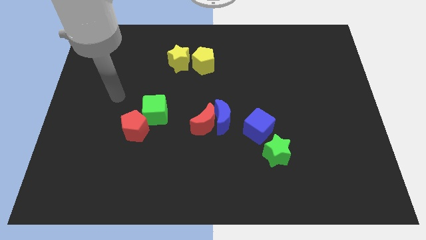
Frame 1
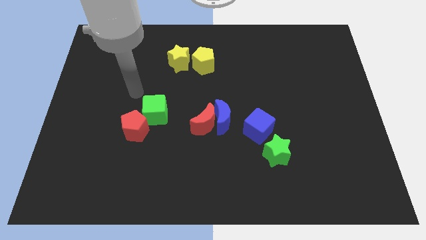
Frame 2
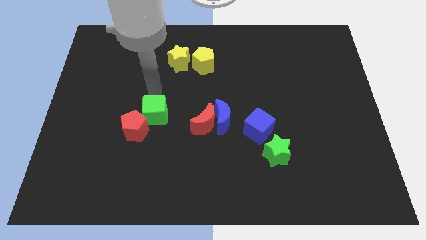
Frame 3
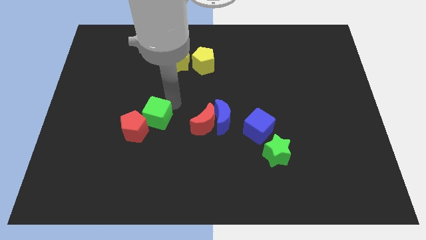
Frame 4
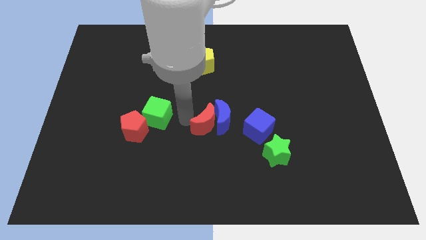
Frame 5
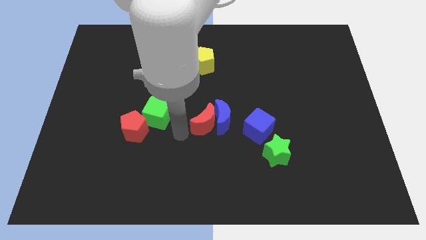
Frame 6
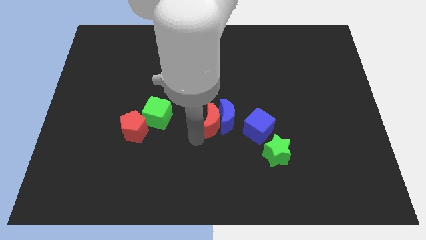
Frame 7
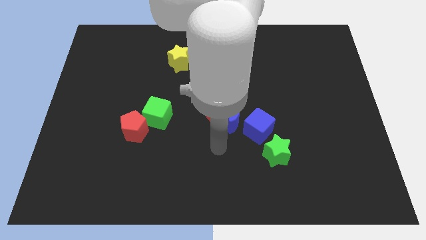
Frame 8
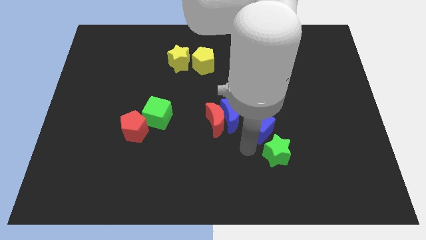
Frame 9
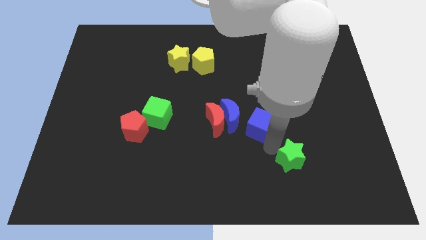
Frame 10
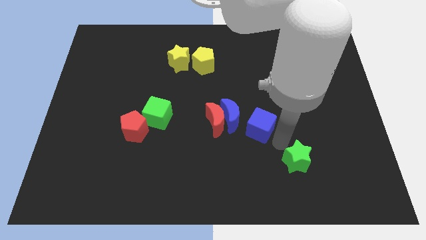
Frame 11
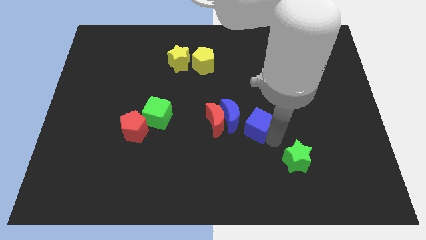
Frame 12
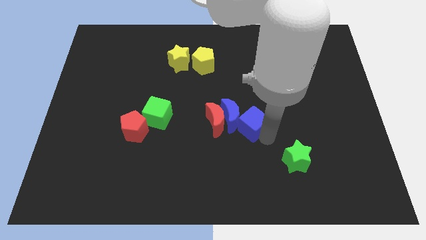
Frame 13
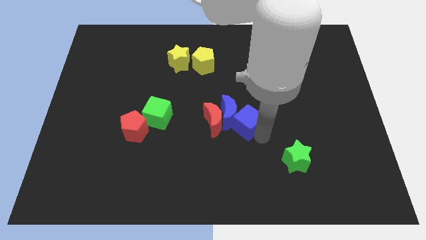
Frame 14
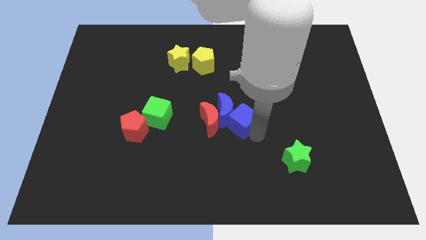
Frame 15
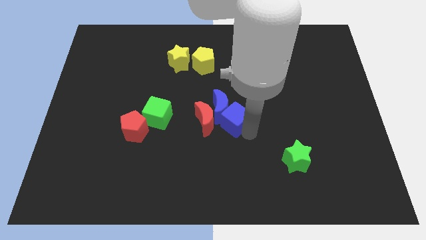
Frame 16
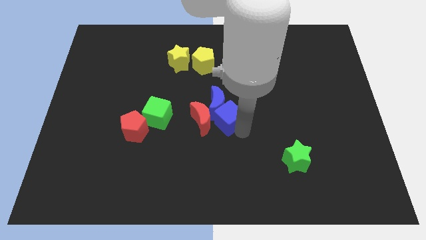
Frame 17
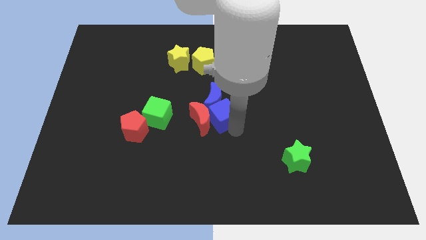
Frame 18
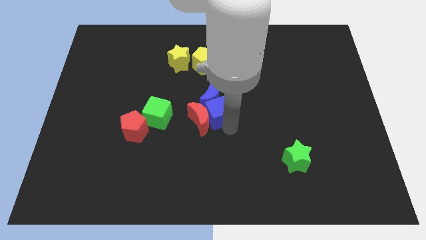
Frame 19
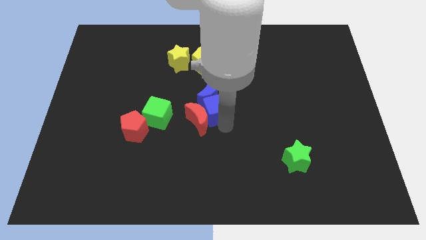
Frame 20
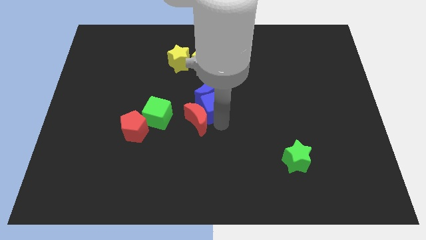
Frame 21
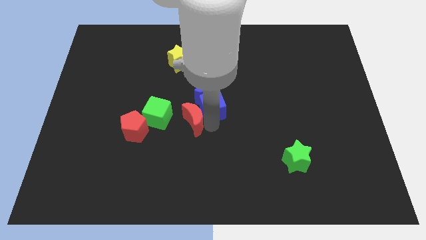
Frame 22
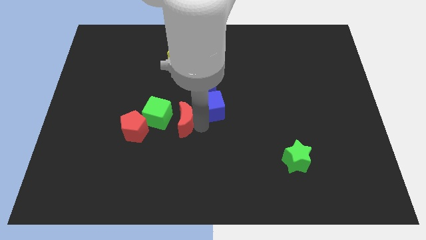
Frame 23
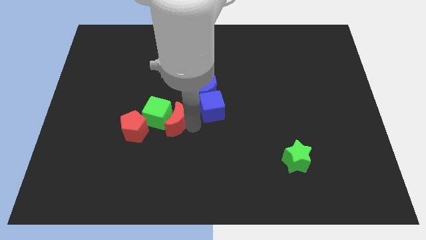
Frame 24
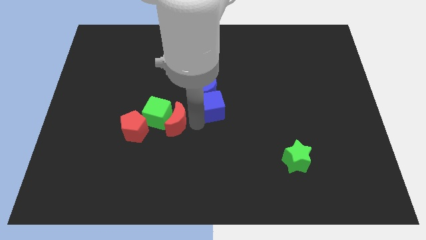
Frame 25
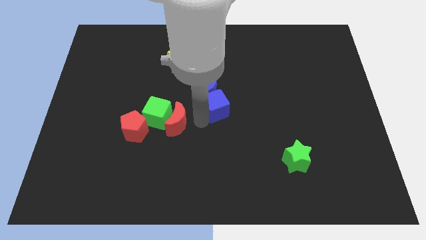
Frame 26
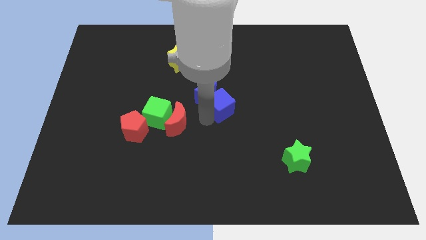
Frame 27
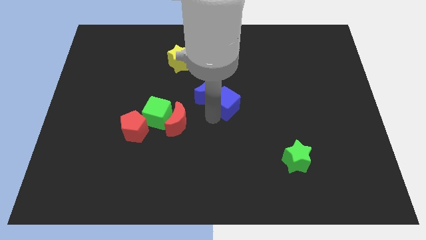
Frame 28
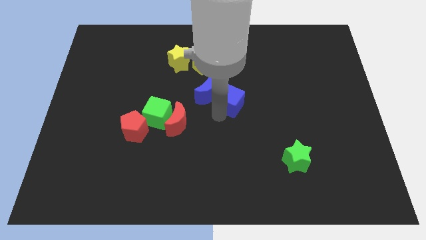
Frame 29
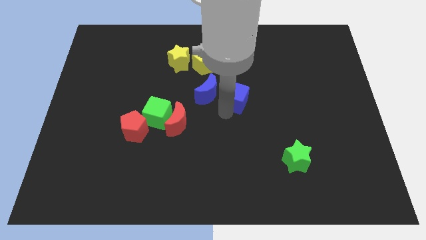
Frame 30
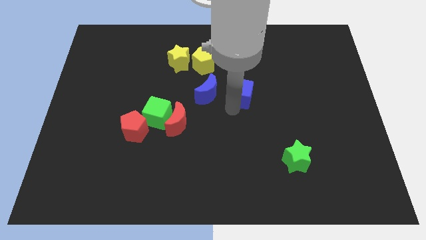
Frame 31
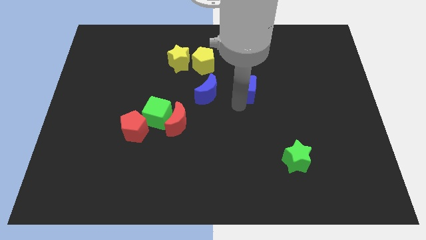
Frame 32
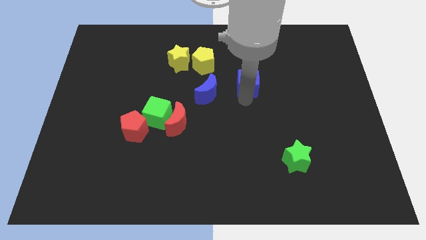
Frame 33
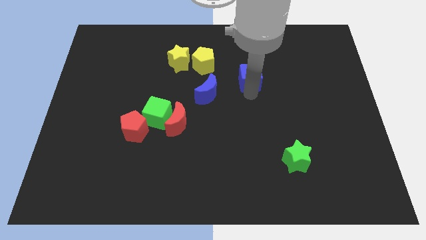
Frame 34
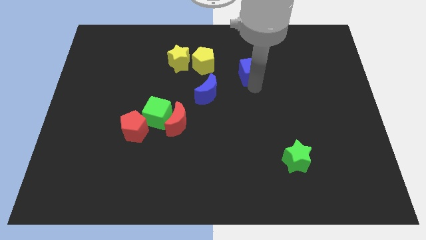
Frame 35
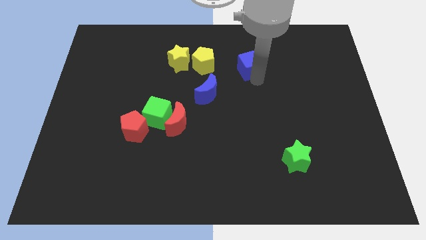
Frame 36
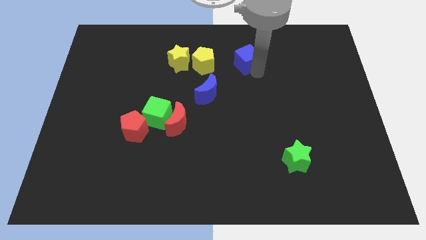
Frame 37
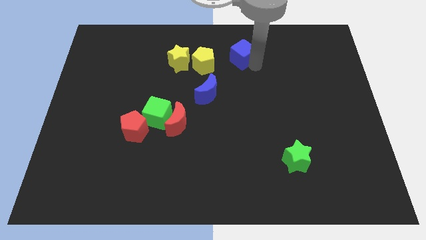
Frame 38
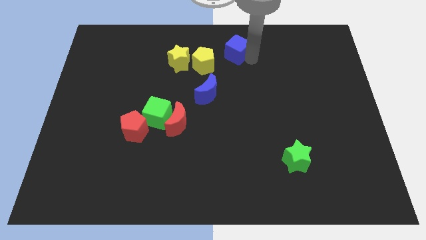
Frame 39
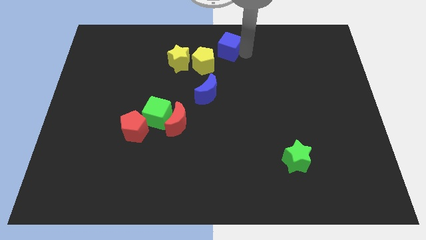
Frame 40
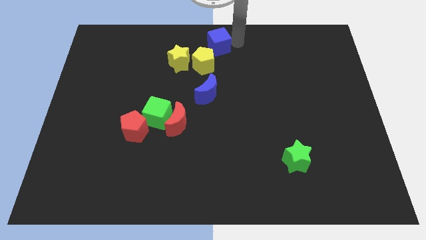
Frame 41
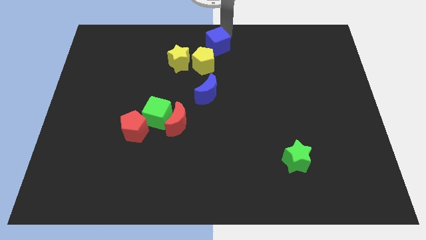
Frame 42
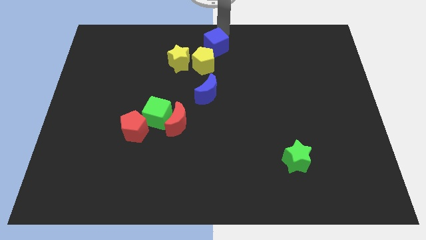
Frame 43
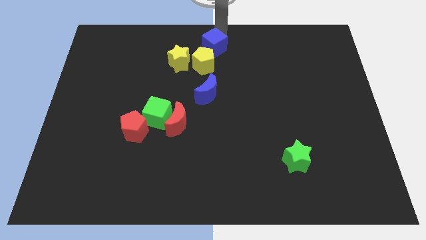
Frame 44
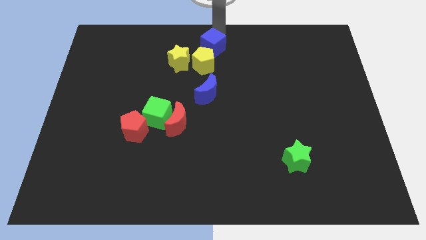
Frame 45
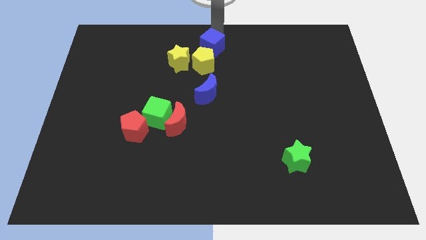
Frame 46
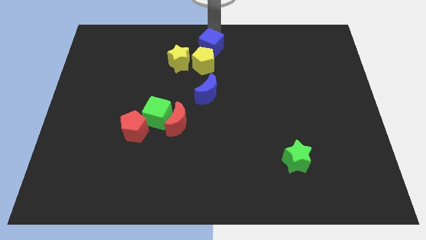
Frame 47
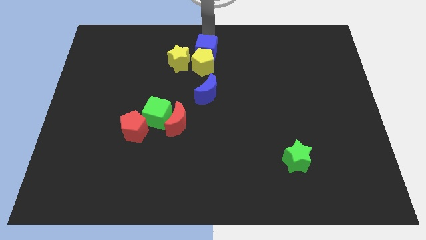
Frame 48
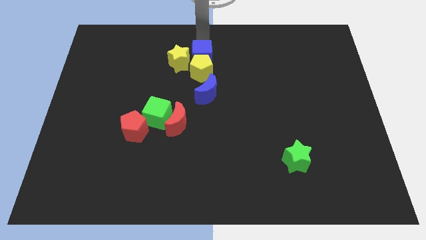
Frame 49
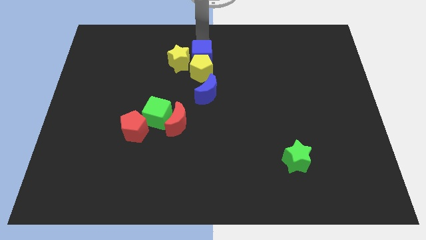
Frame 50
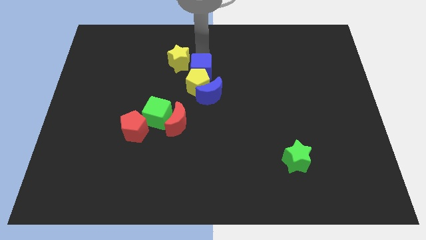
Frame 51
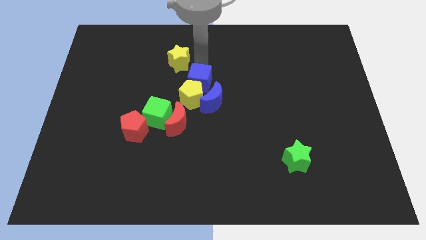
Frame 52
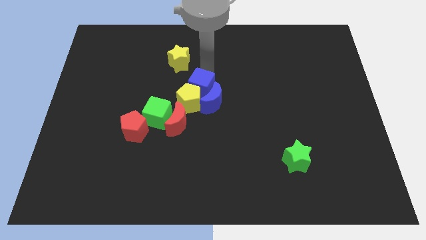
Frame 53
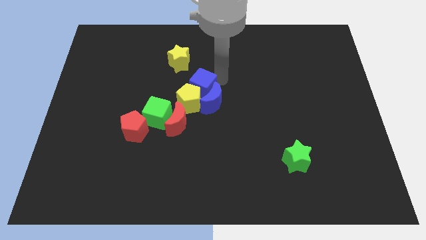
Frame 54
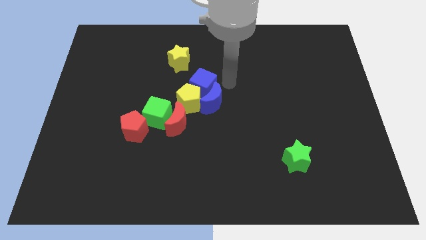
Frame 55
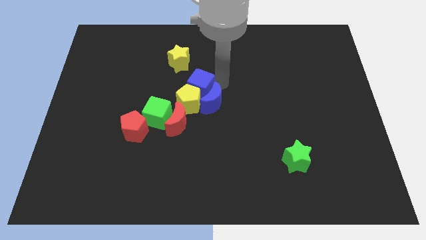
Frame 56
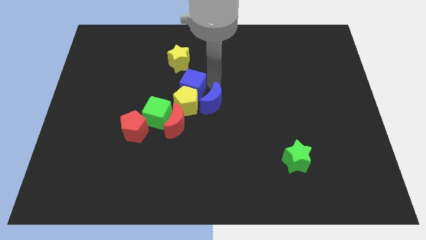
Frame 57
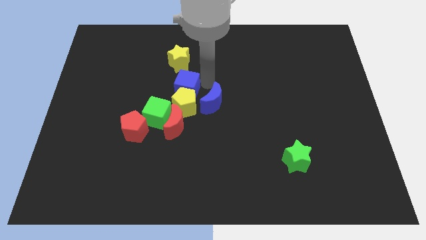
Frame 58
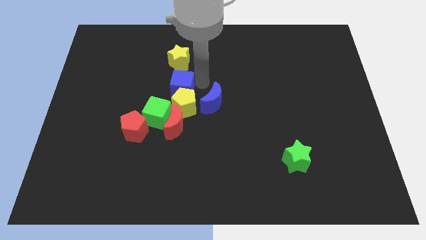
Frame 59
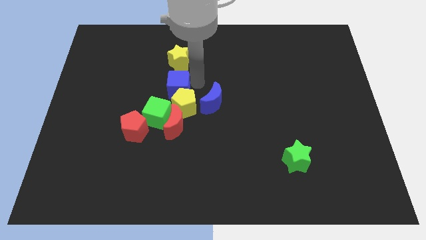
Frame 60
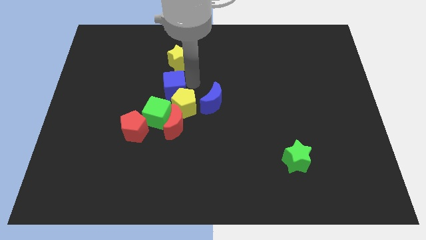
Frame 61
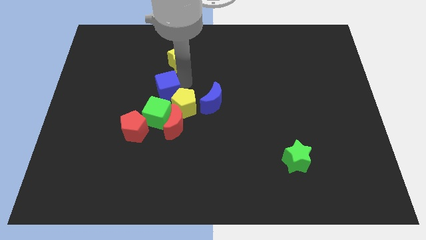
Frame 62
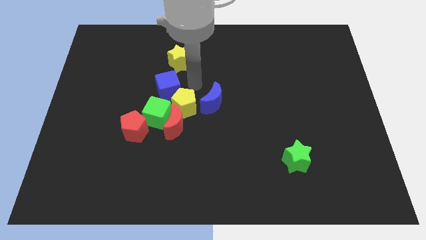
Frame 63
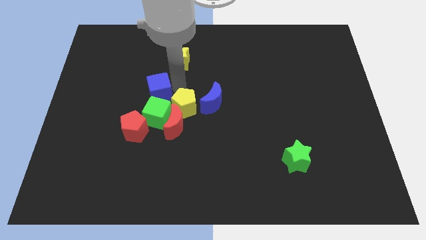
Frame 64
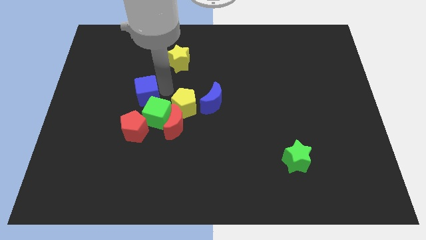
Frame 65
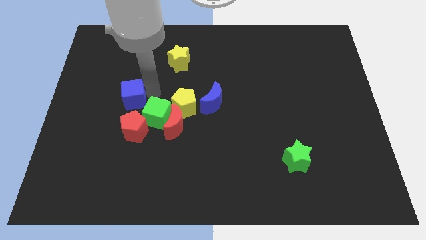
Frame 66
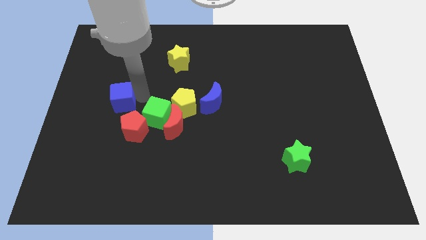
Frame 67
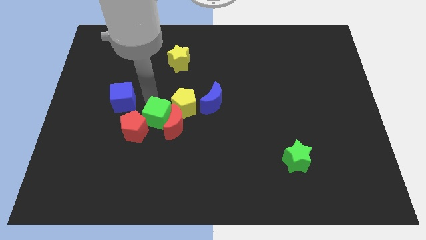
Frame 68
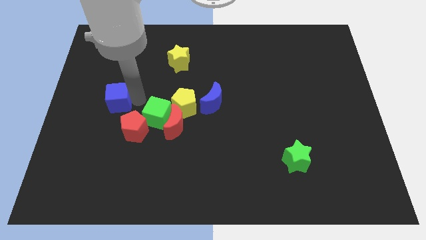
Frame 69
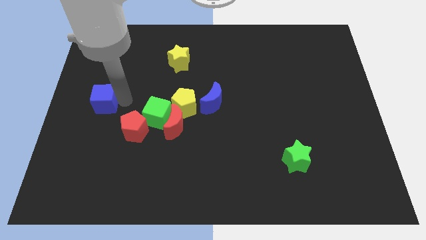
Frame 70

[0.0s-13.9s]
put the blue cube to the left side of the board

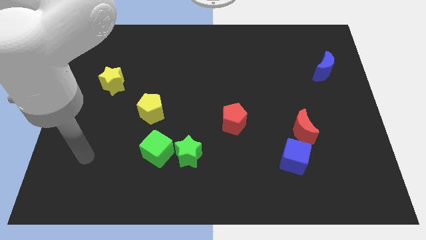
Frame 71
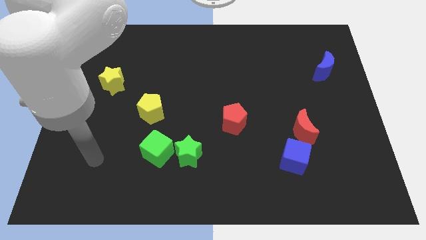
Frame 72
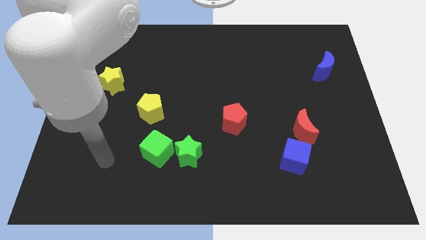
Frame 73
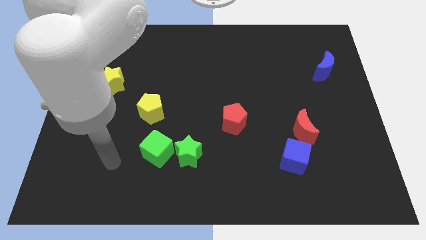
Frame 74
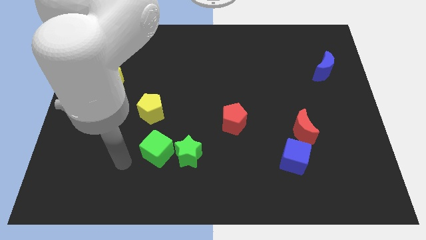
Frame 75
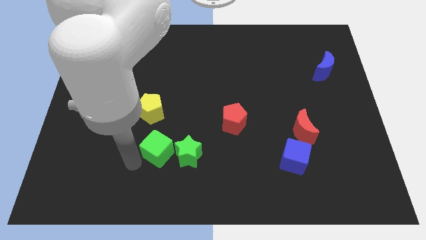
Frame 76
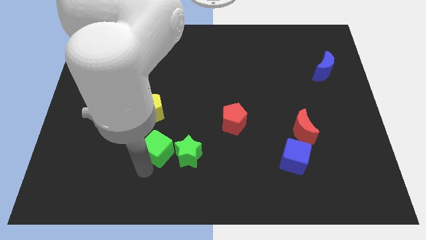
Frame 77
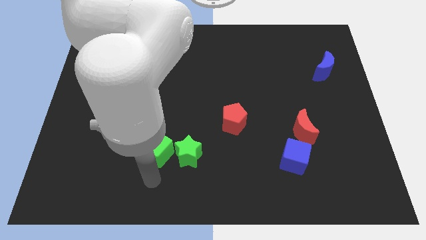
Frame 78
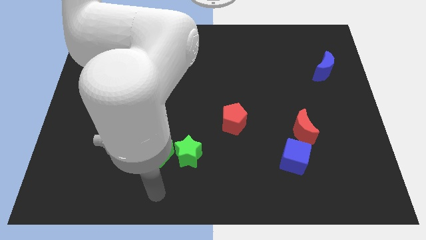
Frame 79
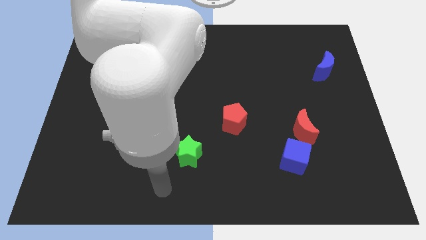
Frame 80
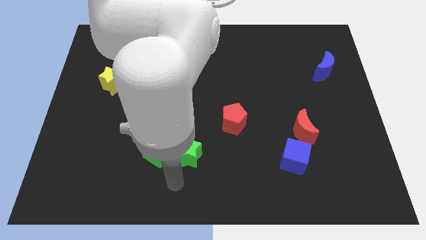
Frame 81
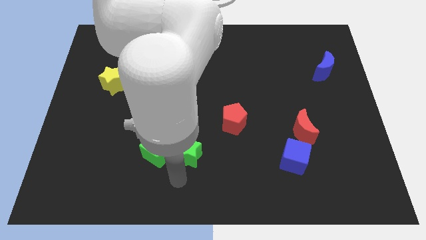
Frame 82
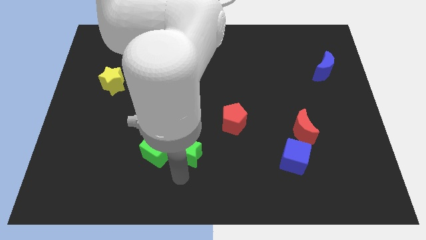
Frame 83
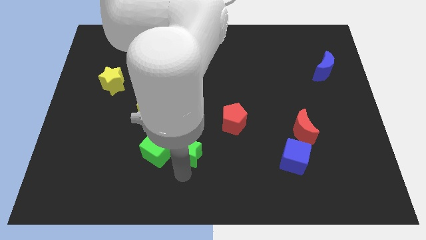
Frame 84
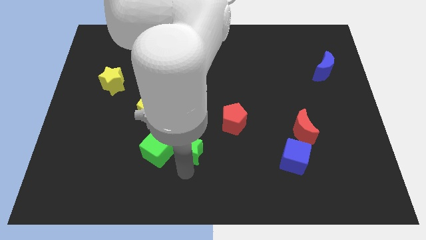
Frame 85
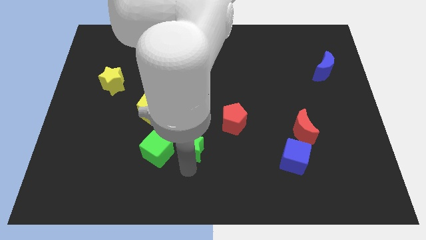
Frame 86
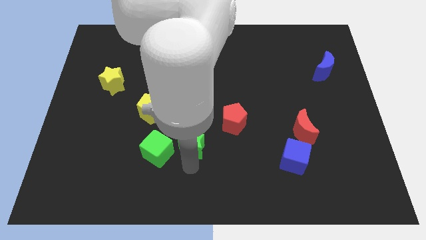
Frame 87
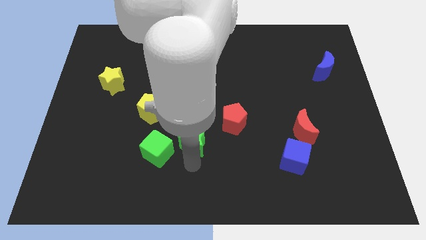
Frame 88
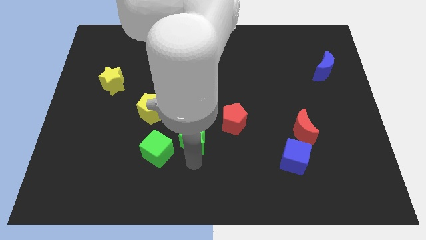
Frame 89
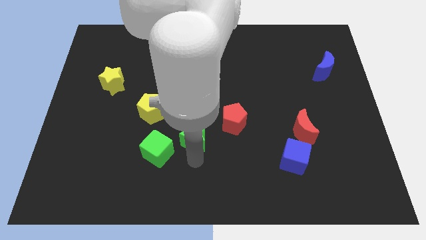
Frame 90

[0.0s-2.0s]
put the green star to the middle of the board
